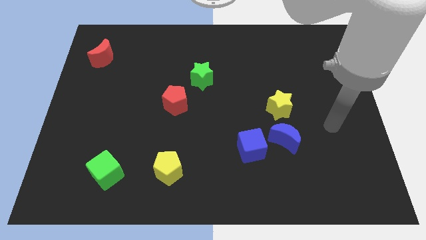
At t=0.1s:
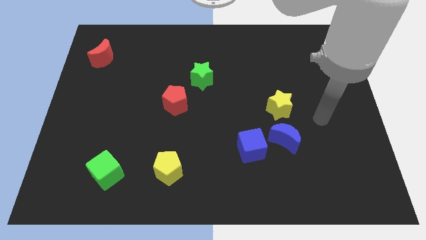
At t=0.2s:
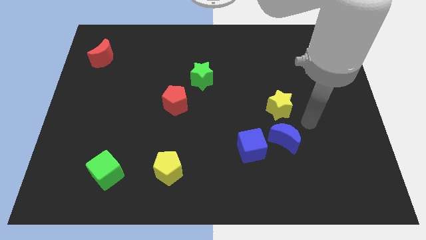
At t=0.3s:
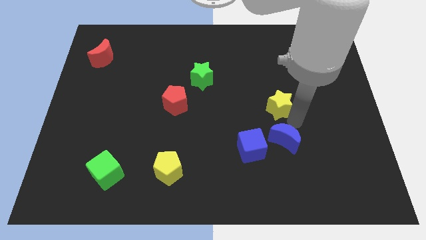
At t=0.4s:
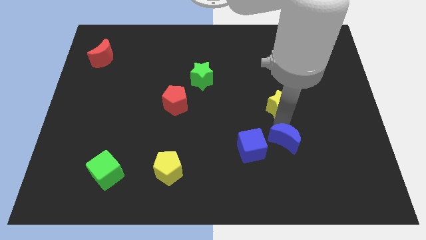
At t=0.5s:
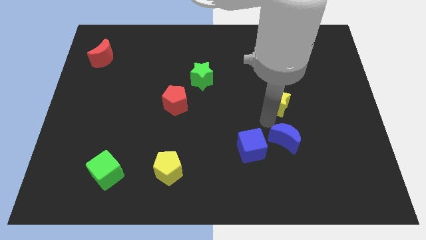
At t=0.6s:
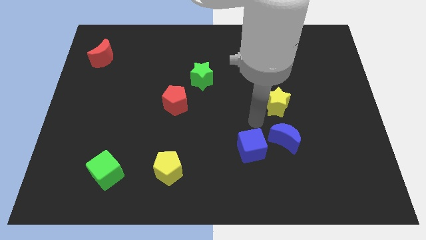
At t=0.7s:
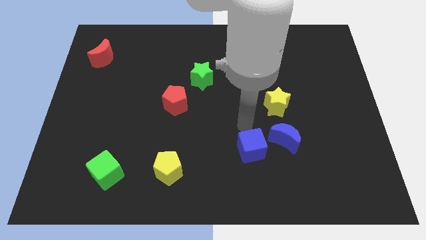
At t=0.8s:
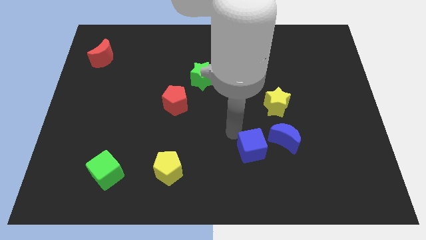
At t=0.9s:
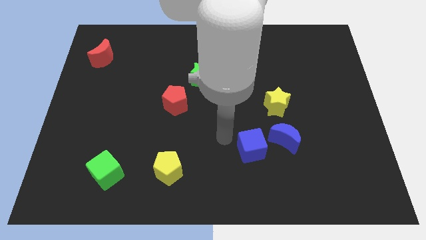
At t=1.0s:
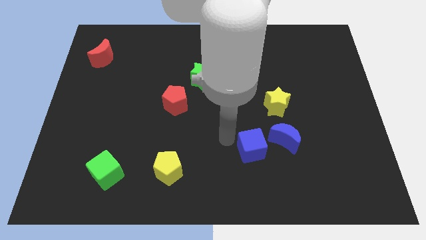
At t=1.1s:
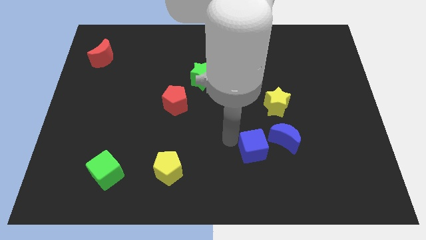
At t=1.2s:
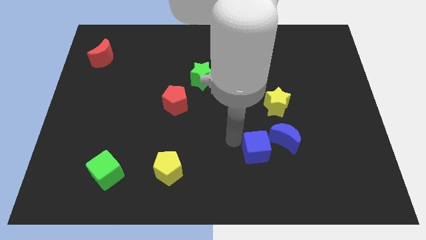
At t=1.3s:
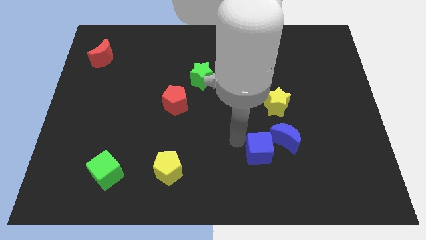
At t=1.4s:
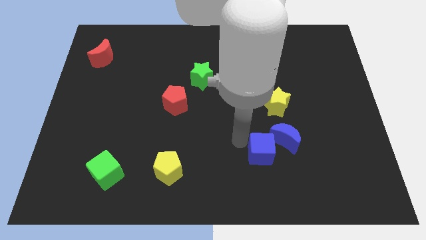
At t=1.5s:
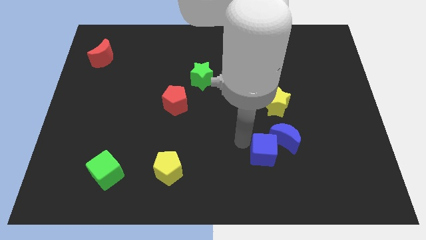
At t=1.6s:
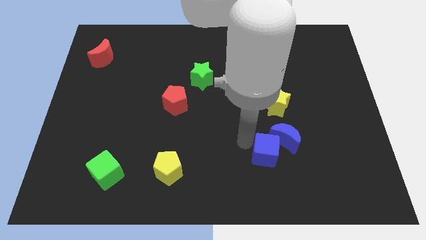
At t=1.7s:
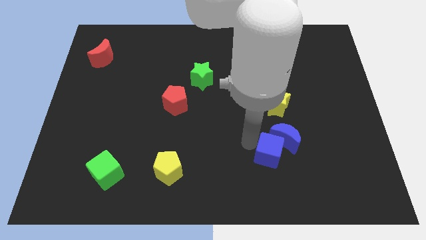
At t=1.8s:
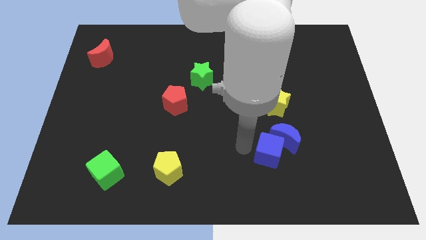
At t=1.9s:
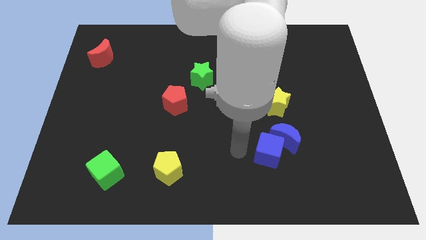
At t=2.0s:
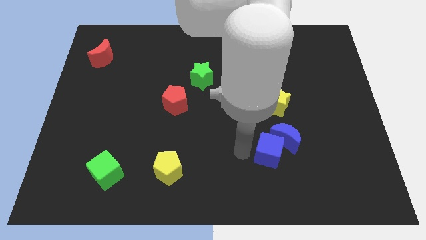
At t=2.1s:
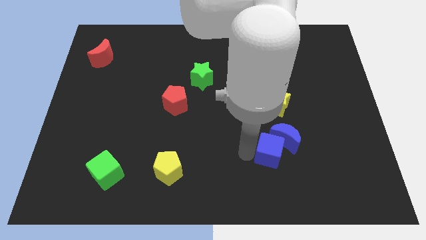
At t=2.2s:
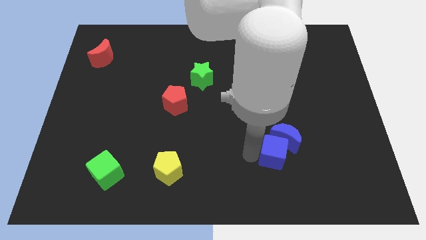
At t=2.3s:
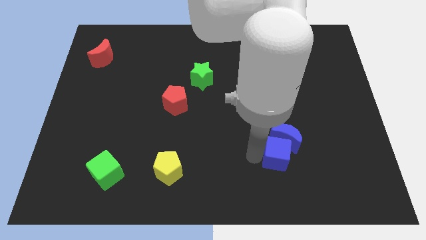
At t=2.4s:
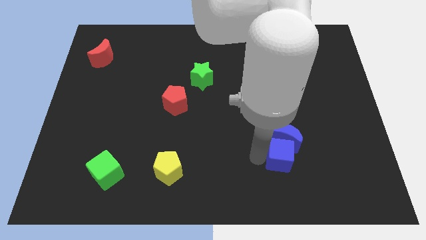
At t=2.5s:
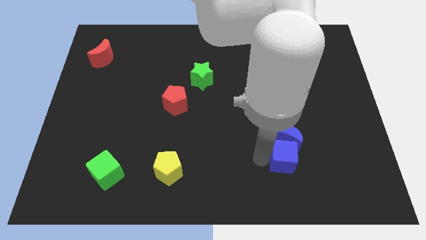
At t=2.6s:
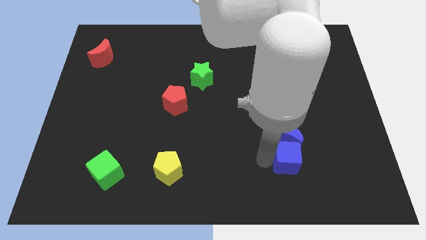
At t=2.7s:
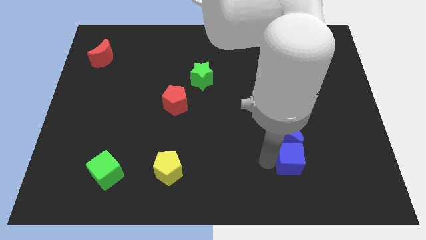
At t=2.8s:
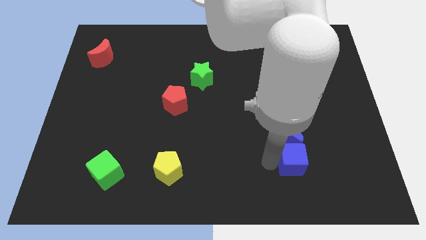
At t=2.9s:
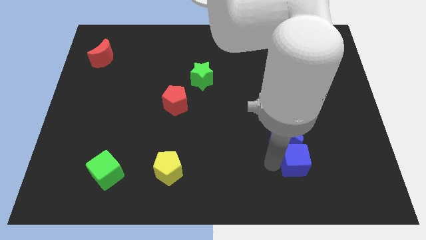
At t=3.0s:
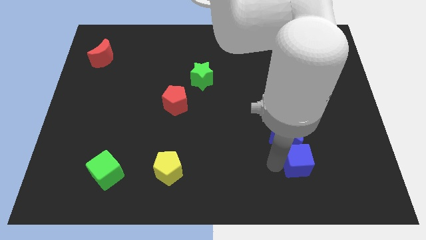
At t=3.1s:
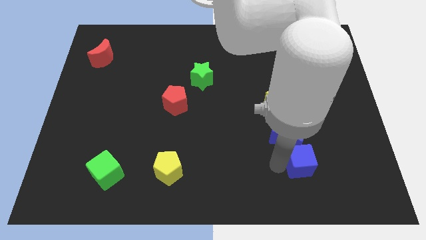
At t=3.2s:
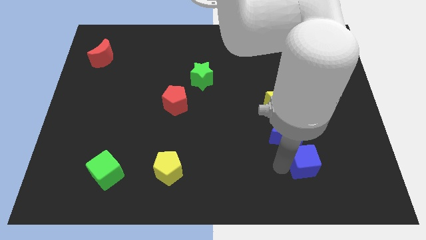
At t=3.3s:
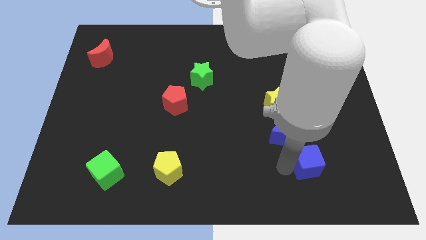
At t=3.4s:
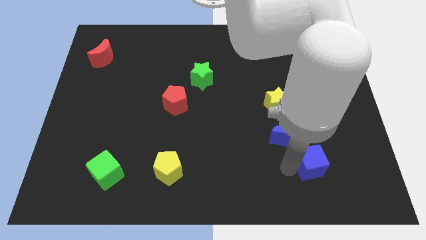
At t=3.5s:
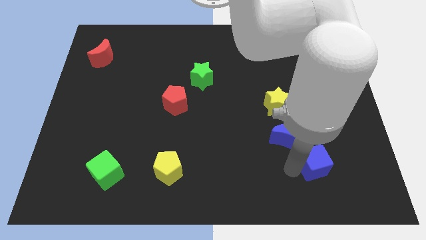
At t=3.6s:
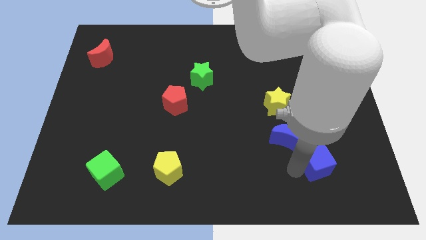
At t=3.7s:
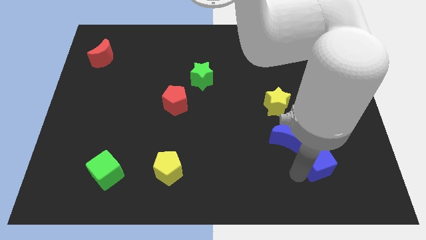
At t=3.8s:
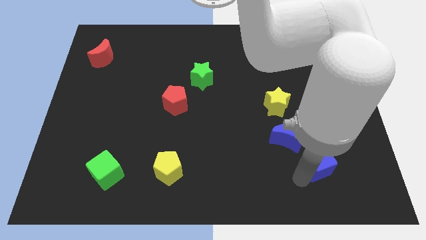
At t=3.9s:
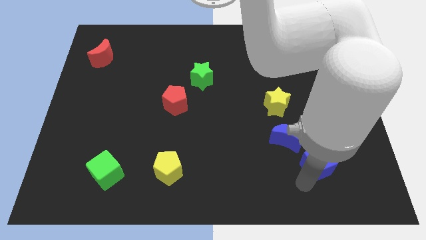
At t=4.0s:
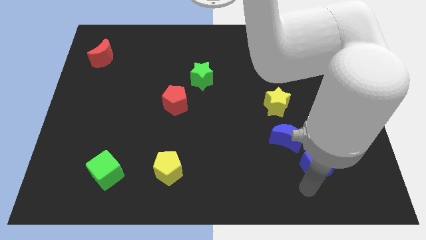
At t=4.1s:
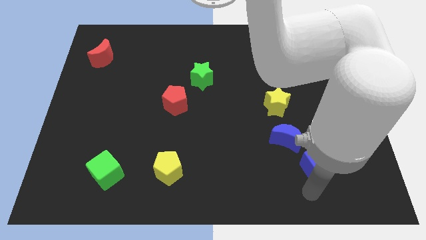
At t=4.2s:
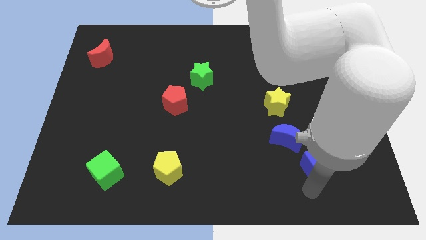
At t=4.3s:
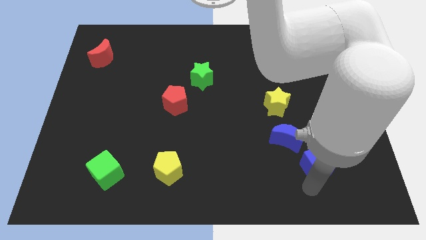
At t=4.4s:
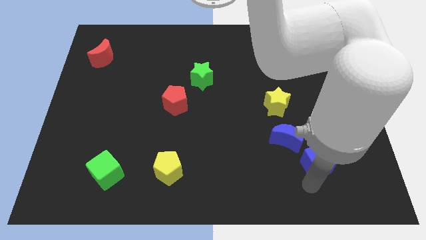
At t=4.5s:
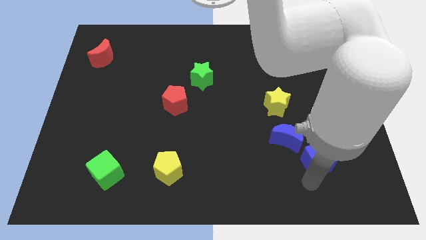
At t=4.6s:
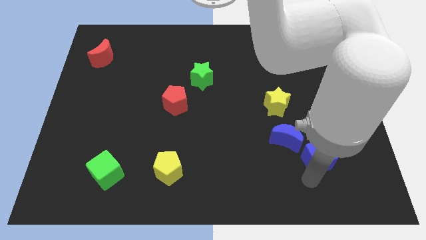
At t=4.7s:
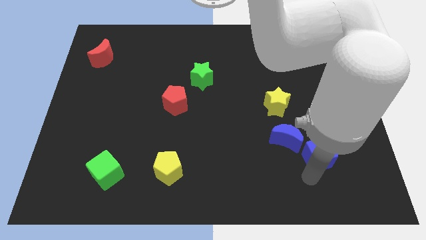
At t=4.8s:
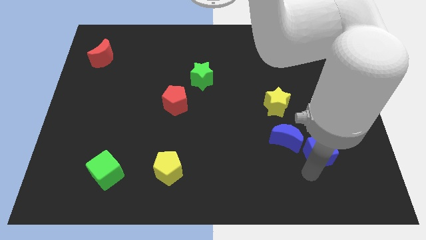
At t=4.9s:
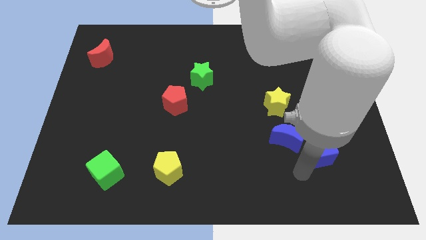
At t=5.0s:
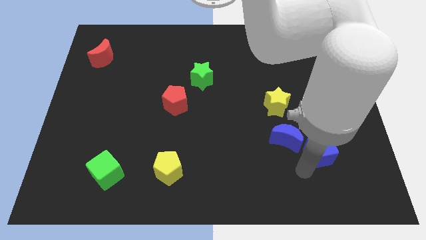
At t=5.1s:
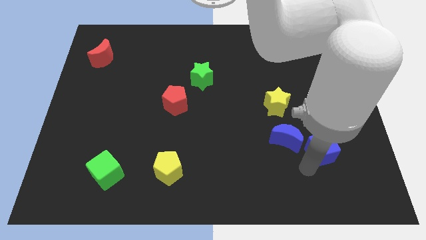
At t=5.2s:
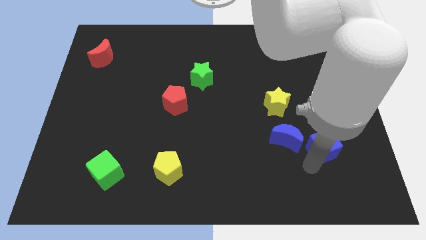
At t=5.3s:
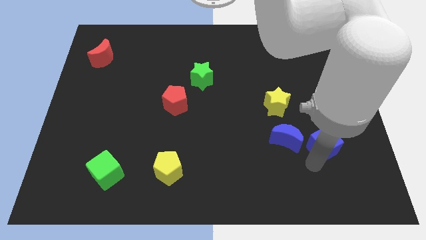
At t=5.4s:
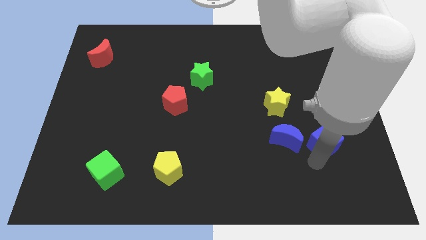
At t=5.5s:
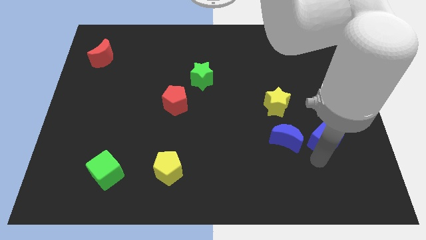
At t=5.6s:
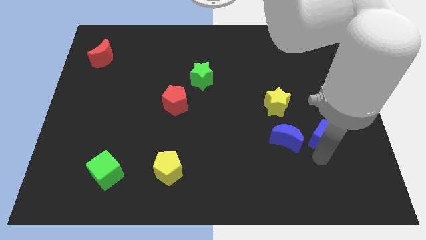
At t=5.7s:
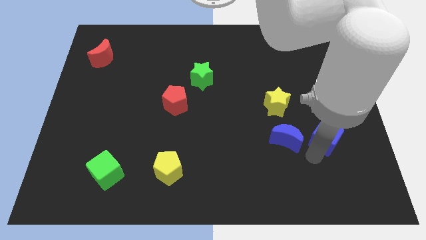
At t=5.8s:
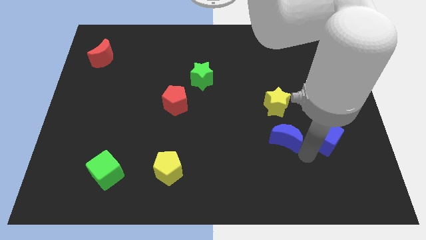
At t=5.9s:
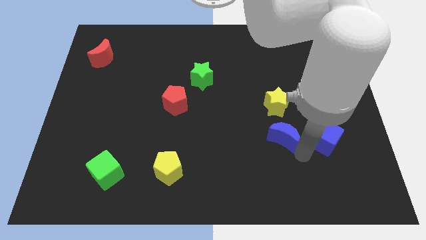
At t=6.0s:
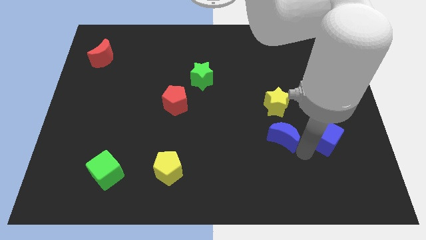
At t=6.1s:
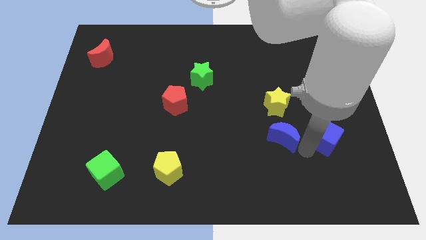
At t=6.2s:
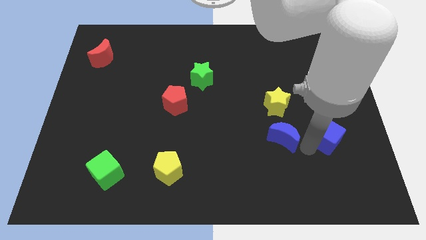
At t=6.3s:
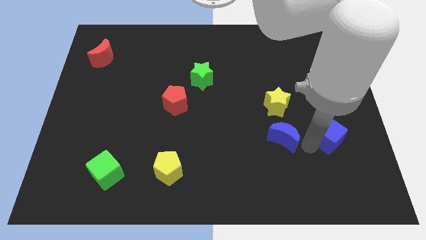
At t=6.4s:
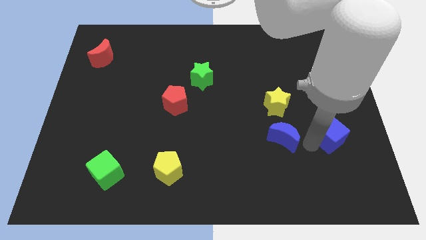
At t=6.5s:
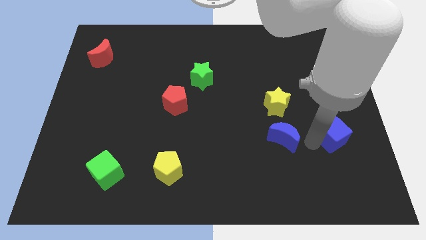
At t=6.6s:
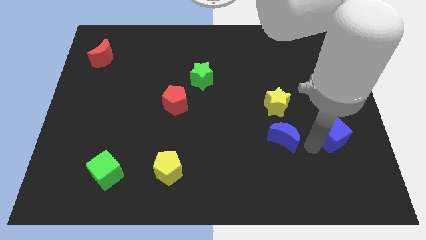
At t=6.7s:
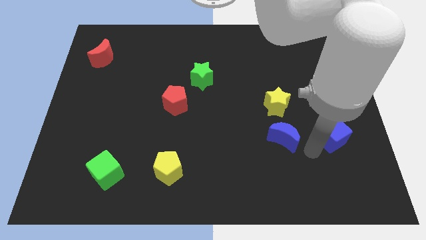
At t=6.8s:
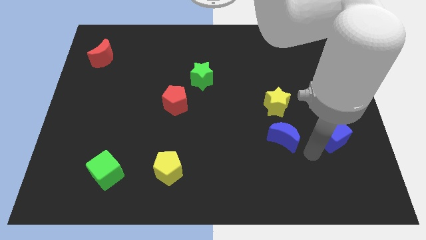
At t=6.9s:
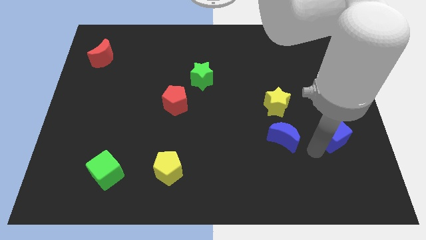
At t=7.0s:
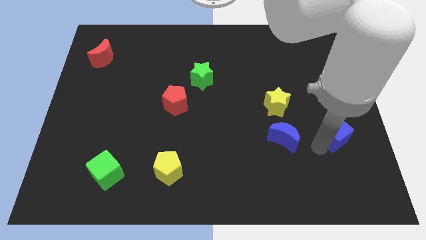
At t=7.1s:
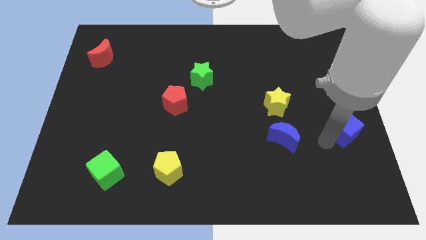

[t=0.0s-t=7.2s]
put the blue cube to the center right
